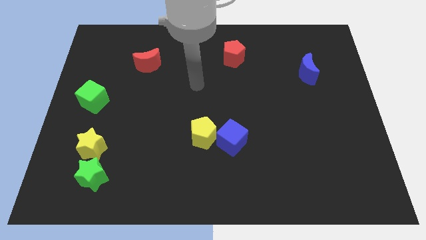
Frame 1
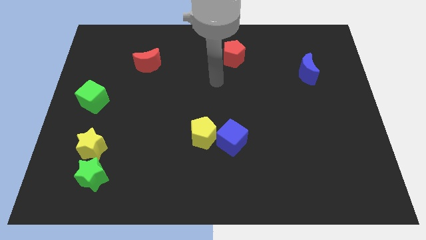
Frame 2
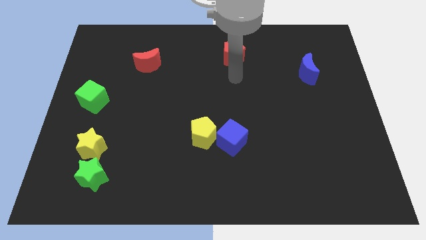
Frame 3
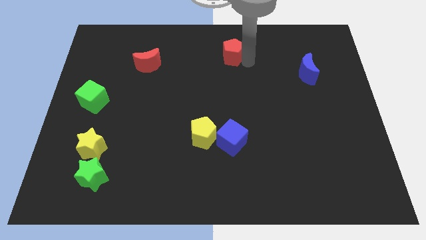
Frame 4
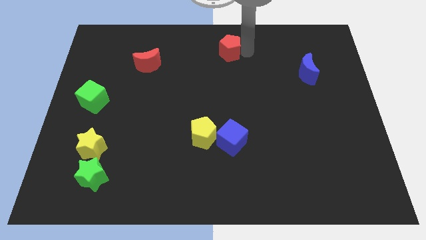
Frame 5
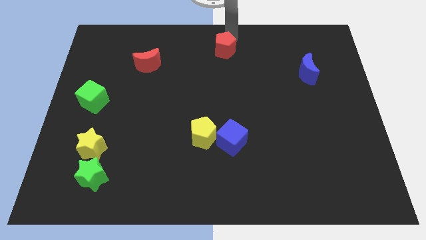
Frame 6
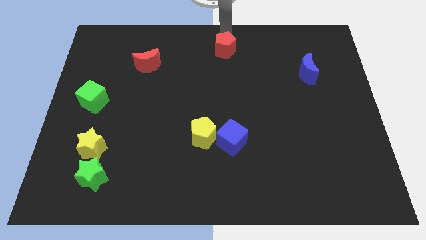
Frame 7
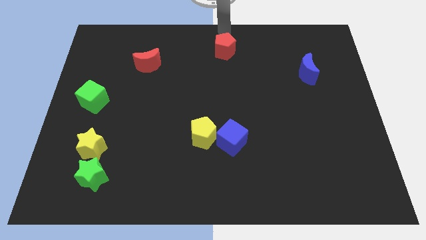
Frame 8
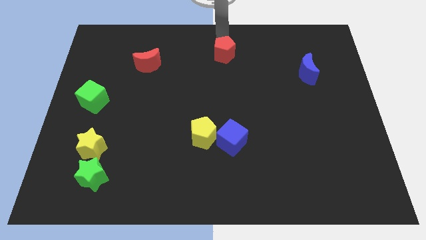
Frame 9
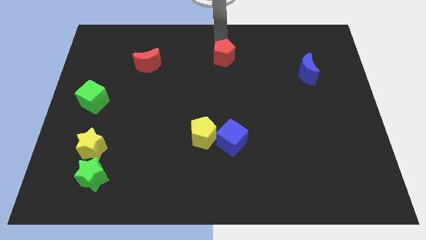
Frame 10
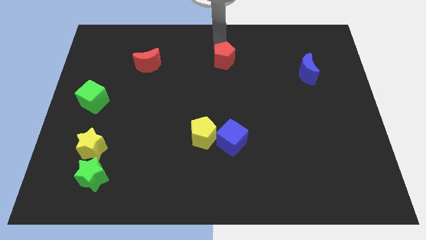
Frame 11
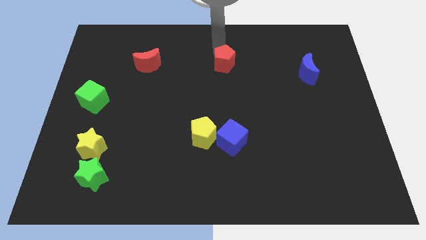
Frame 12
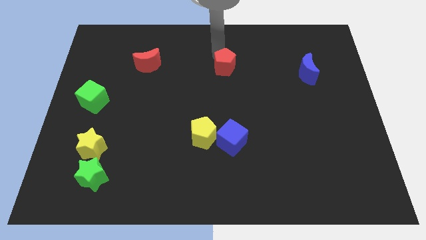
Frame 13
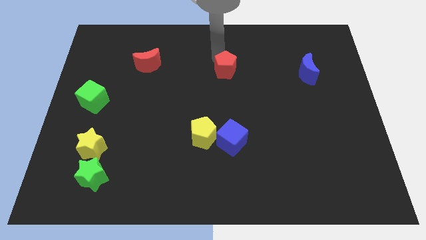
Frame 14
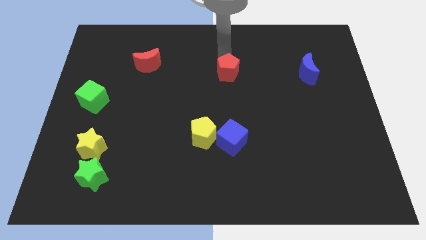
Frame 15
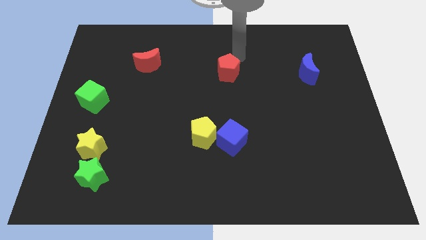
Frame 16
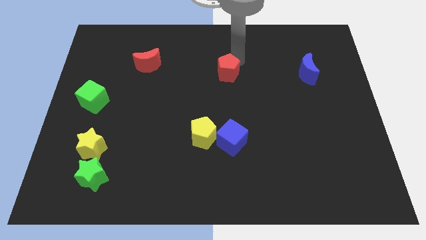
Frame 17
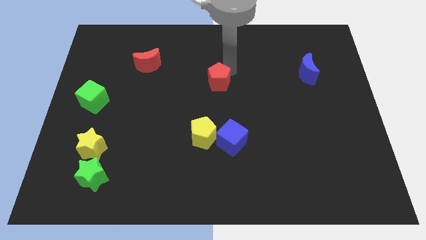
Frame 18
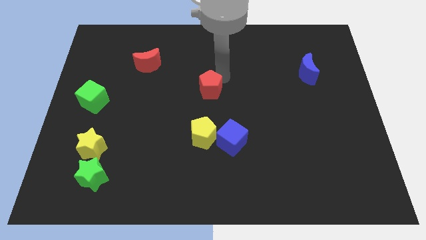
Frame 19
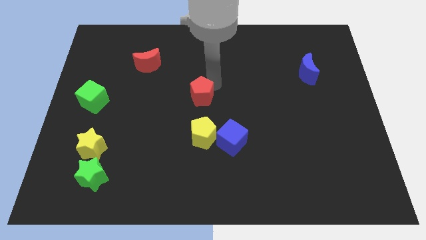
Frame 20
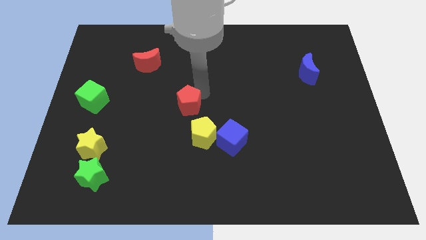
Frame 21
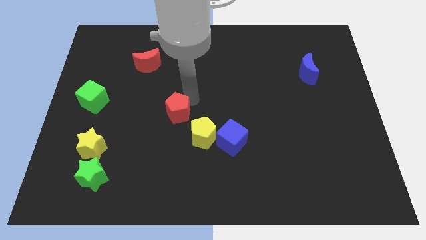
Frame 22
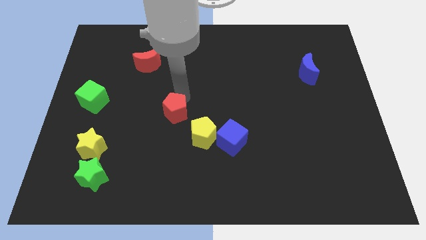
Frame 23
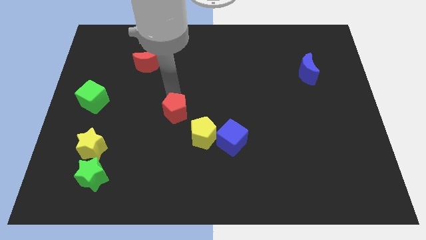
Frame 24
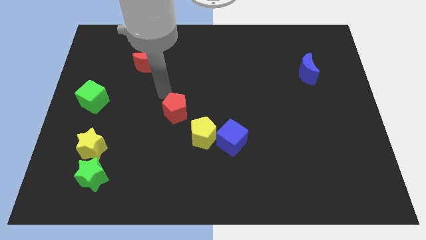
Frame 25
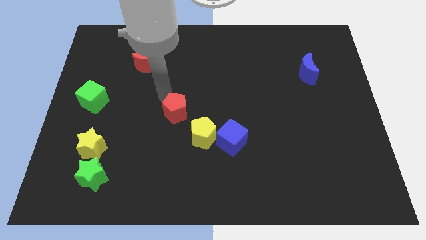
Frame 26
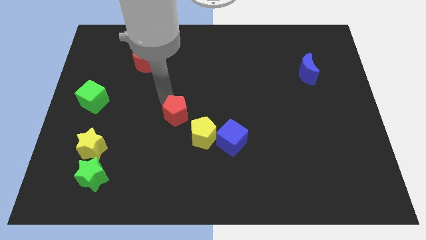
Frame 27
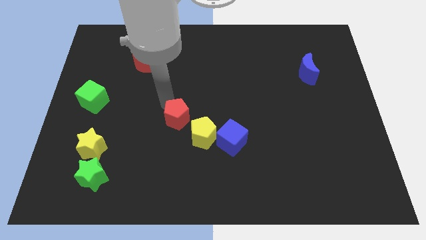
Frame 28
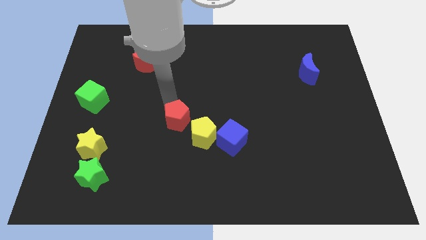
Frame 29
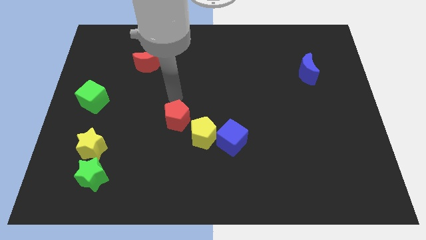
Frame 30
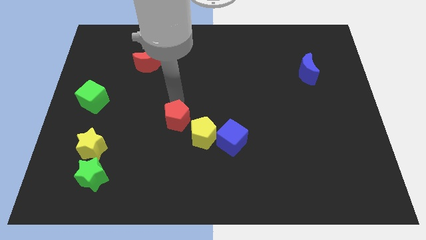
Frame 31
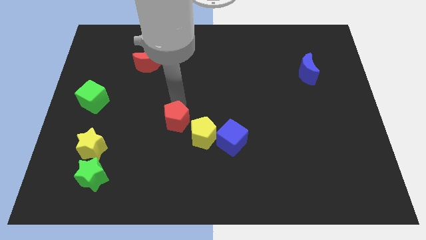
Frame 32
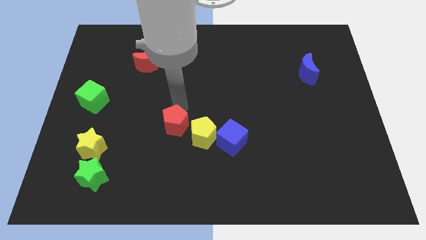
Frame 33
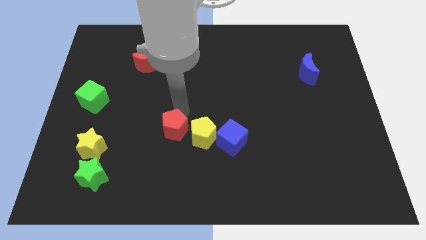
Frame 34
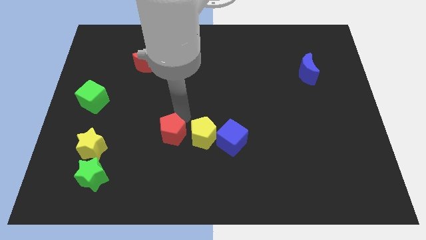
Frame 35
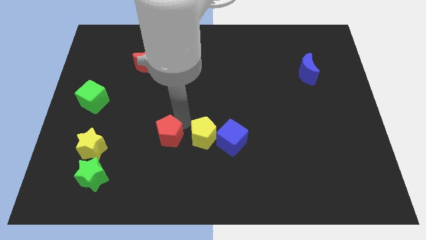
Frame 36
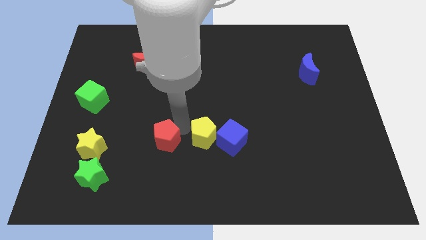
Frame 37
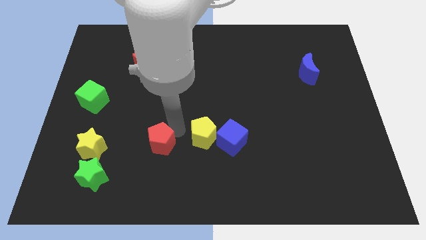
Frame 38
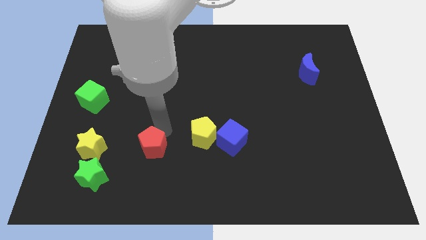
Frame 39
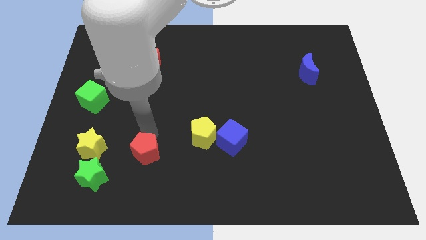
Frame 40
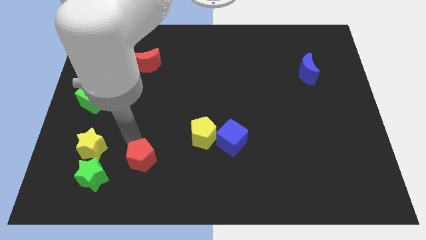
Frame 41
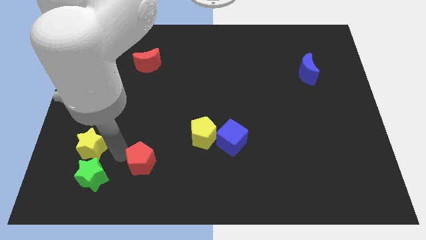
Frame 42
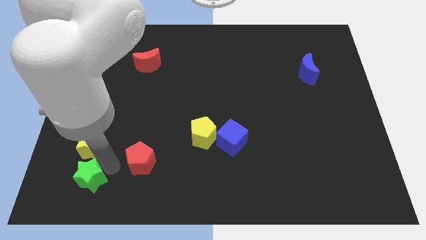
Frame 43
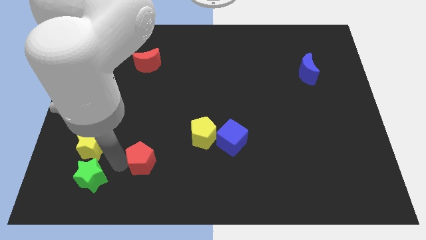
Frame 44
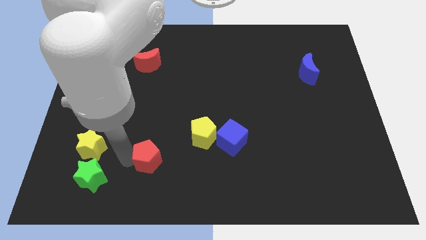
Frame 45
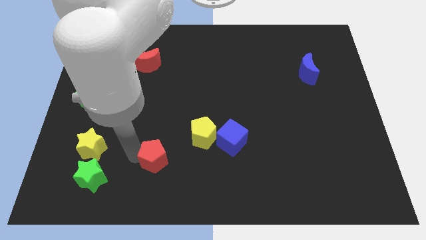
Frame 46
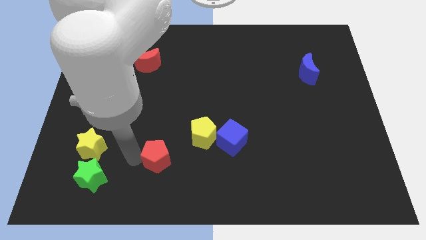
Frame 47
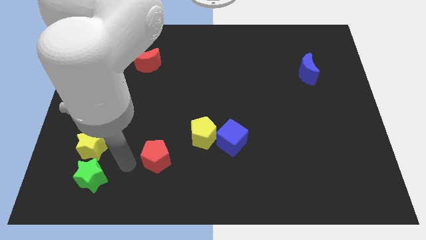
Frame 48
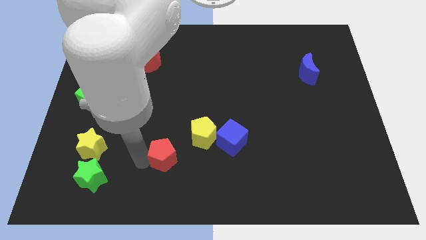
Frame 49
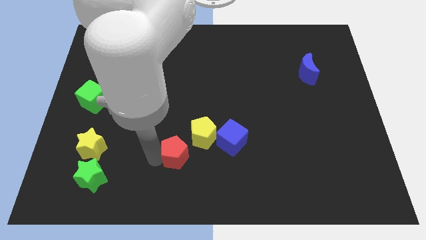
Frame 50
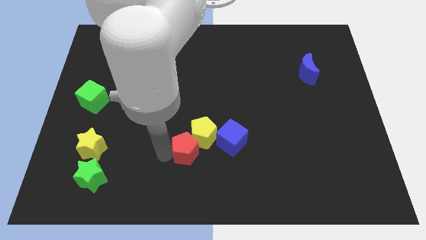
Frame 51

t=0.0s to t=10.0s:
slide the red pentagon below the yellow pentagon

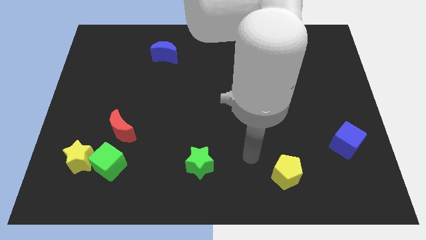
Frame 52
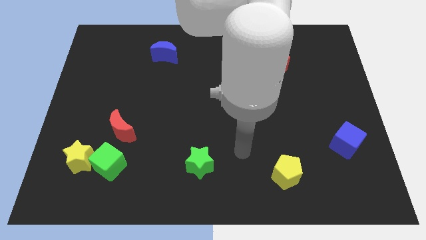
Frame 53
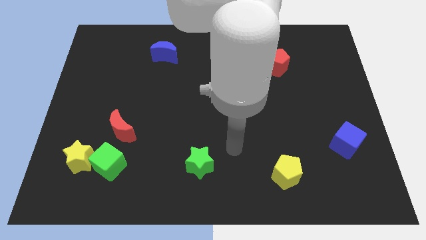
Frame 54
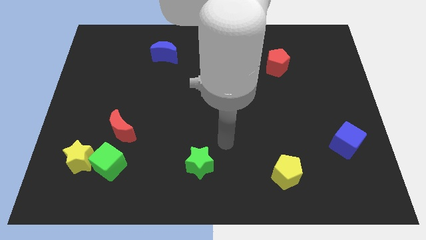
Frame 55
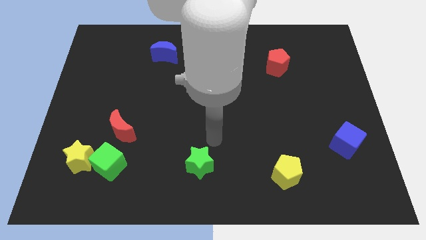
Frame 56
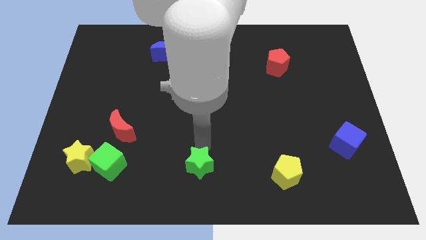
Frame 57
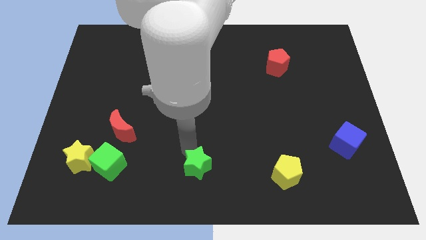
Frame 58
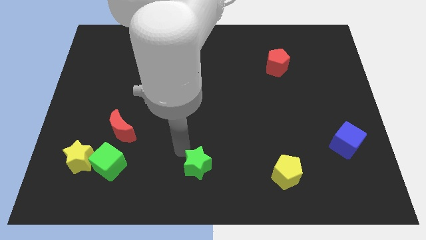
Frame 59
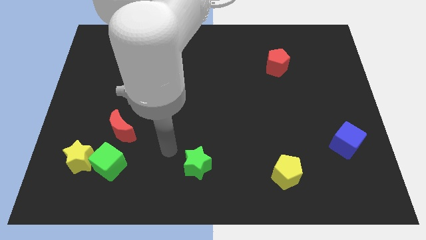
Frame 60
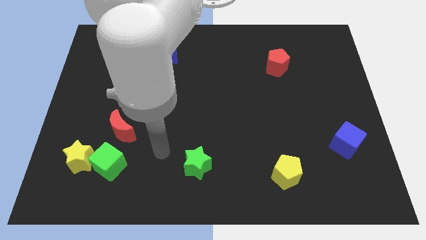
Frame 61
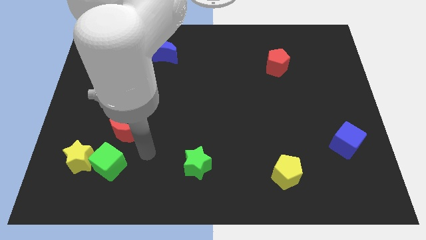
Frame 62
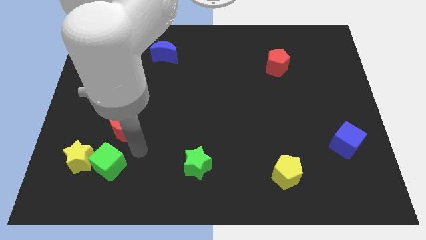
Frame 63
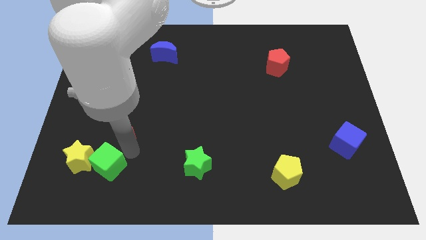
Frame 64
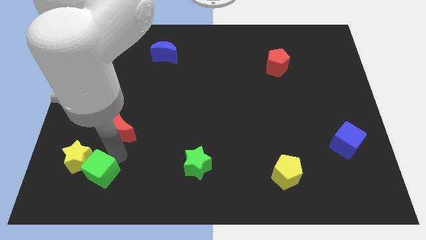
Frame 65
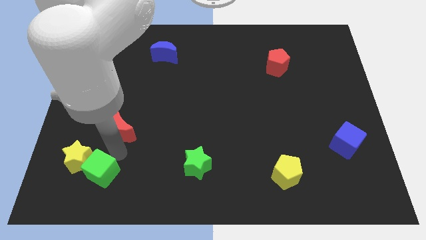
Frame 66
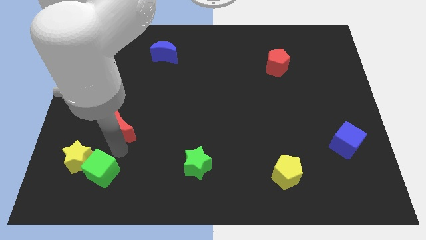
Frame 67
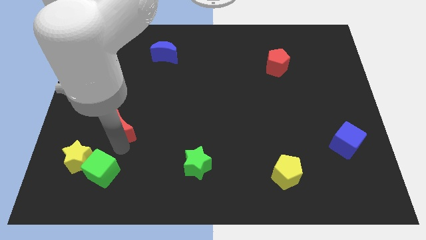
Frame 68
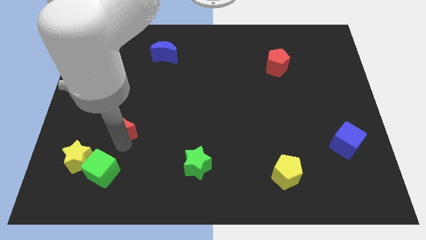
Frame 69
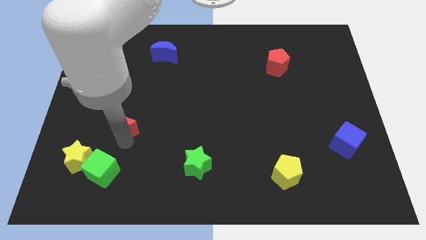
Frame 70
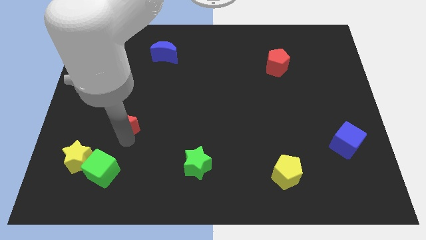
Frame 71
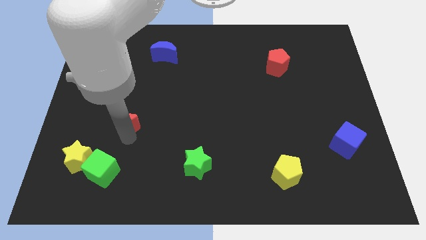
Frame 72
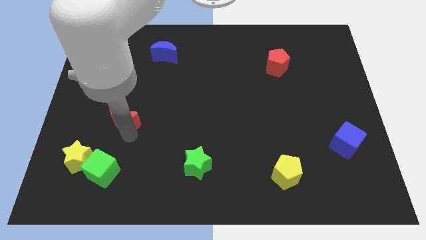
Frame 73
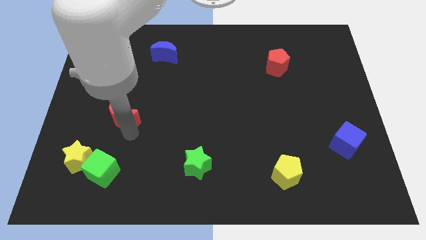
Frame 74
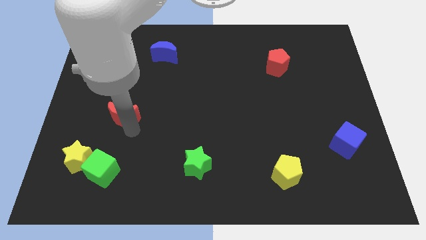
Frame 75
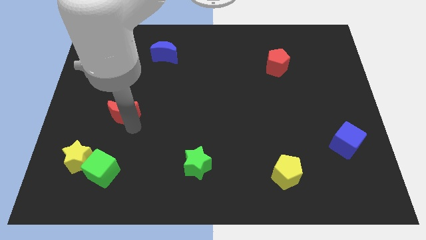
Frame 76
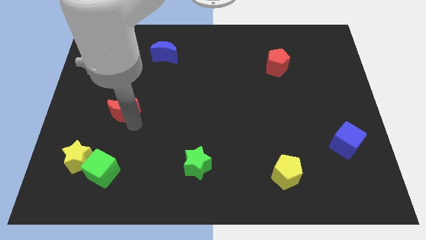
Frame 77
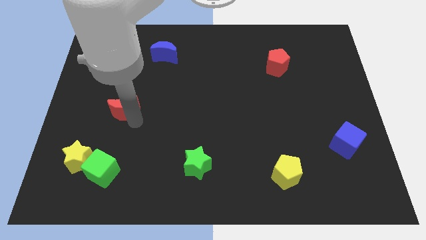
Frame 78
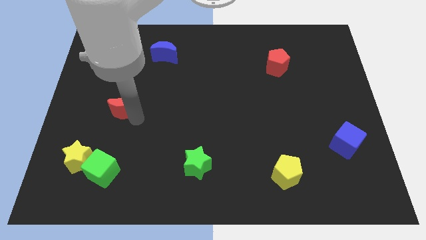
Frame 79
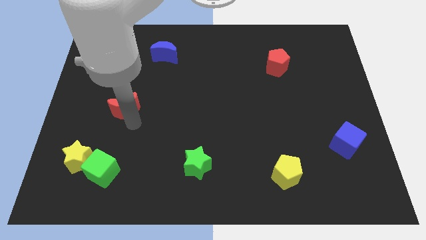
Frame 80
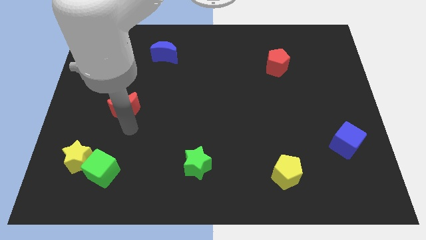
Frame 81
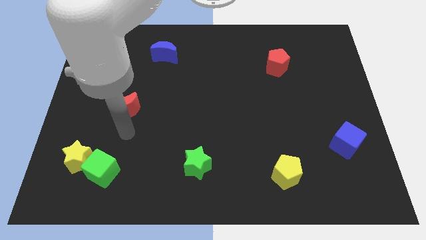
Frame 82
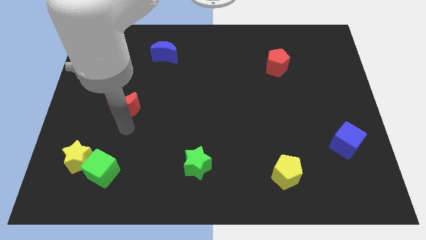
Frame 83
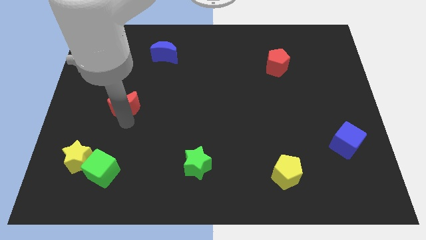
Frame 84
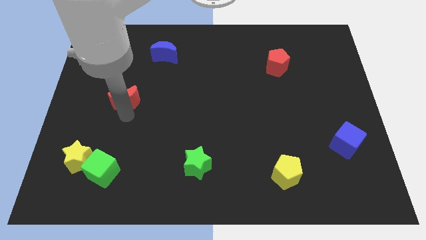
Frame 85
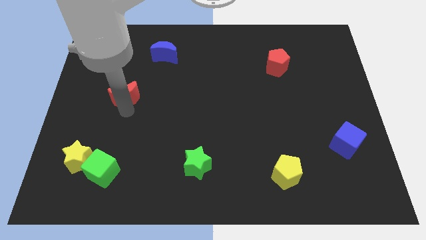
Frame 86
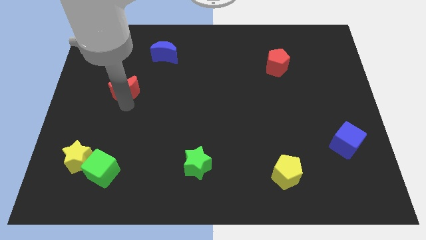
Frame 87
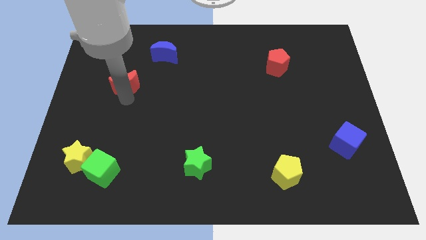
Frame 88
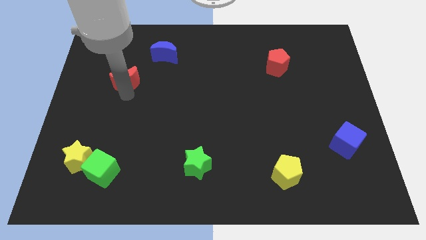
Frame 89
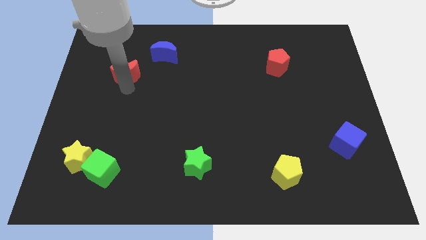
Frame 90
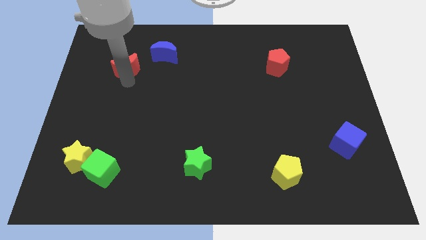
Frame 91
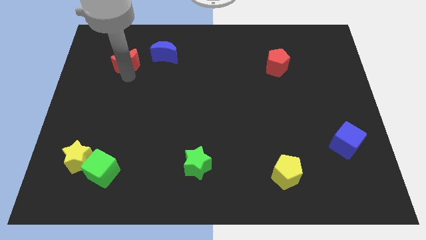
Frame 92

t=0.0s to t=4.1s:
slide the red moon to the left of the blue moon
